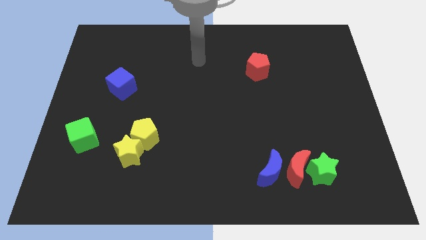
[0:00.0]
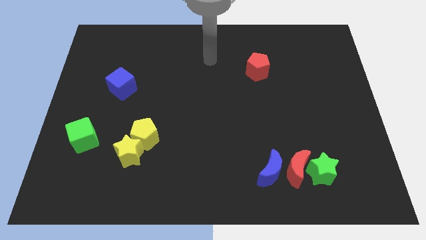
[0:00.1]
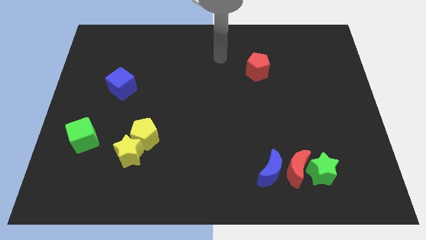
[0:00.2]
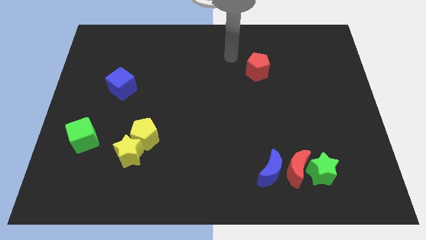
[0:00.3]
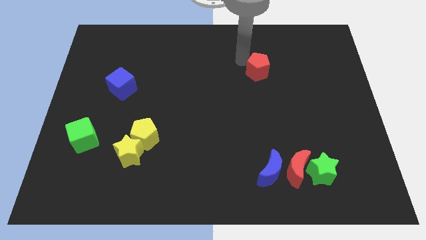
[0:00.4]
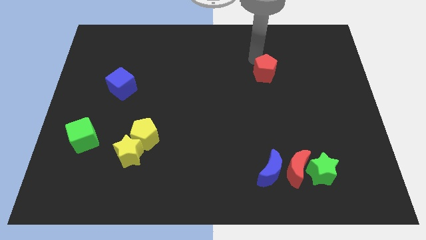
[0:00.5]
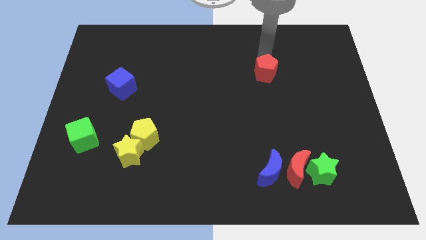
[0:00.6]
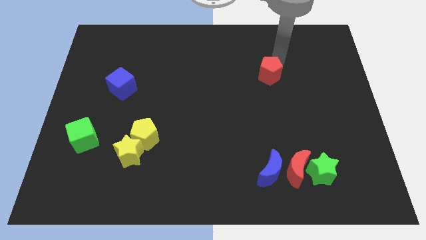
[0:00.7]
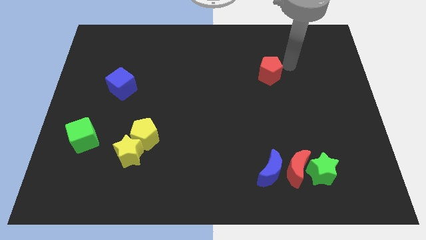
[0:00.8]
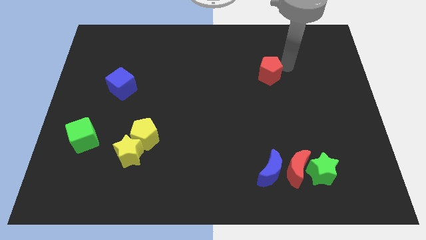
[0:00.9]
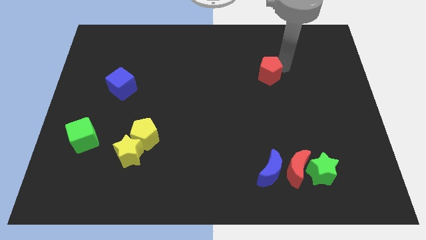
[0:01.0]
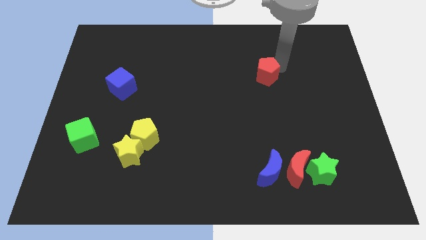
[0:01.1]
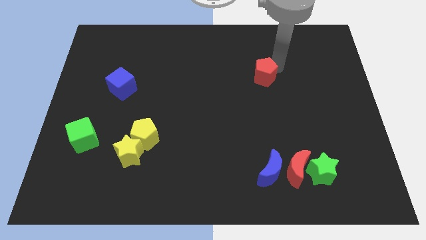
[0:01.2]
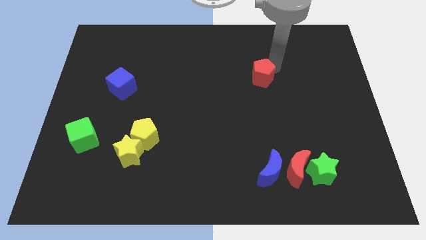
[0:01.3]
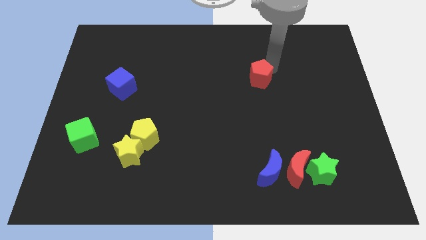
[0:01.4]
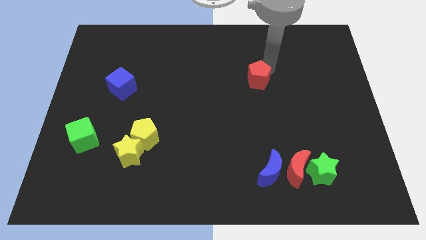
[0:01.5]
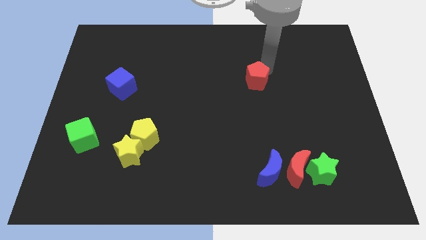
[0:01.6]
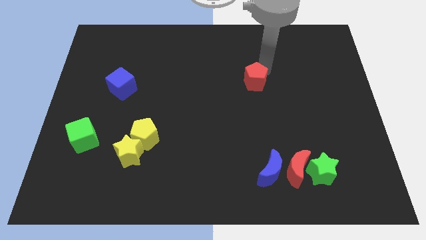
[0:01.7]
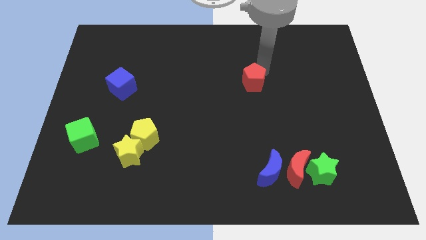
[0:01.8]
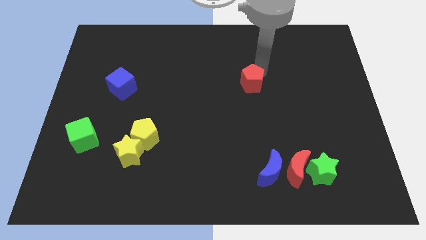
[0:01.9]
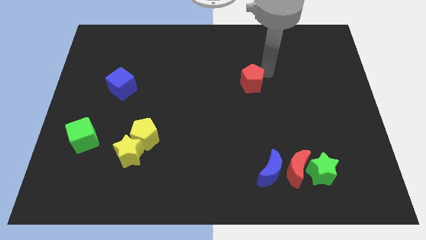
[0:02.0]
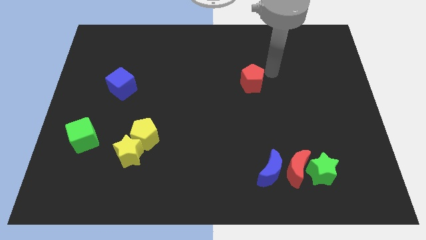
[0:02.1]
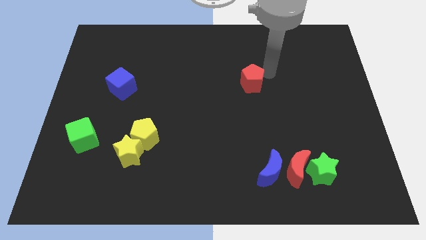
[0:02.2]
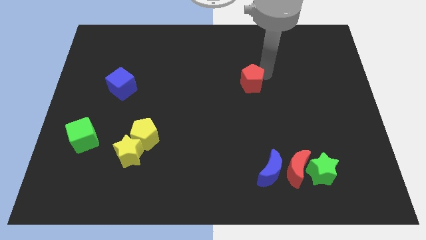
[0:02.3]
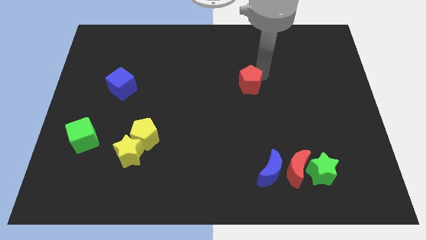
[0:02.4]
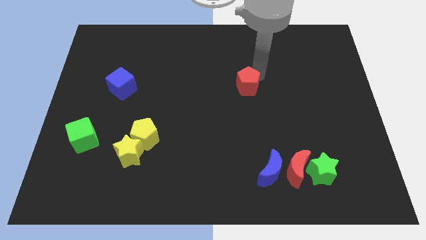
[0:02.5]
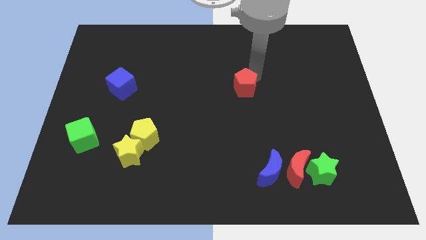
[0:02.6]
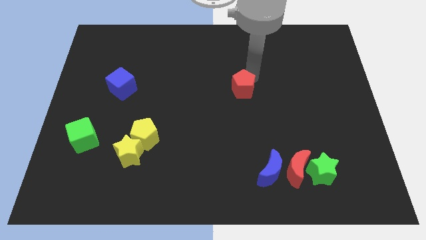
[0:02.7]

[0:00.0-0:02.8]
move the red pentagon down and left diagonally somewhat

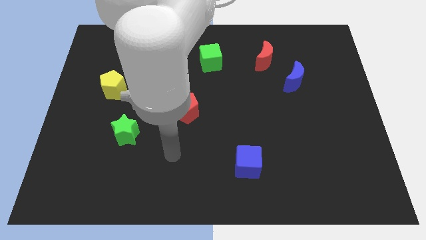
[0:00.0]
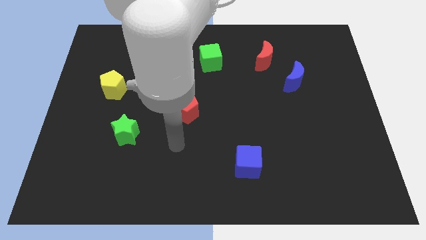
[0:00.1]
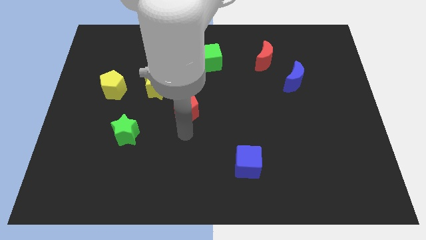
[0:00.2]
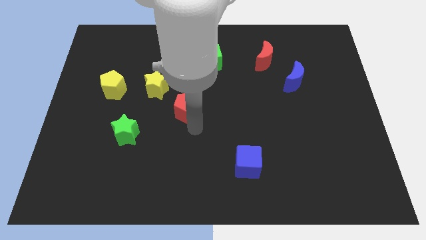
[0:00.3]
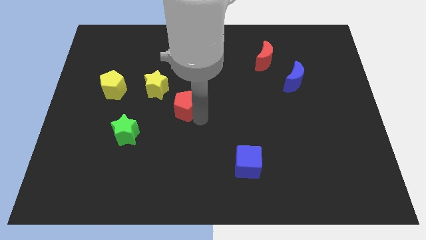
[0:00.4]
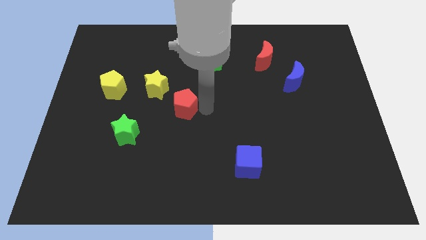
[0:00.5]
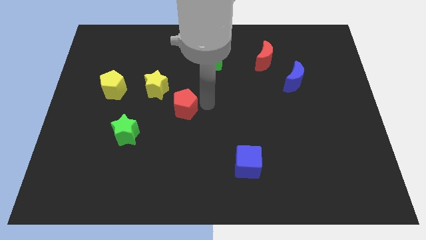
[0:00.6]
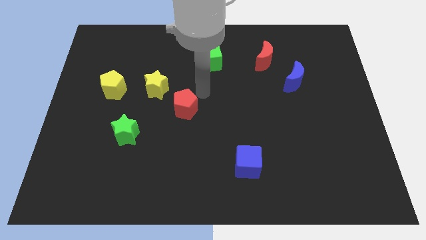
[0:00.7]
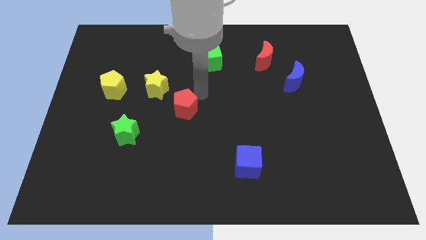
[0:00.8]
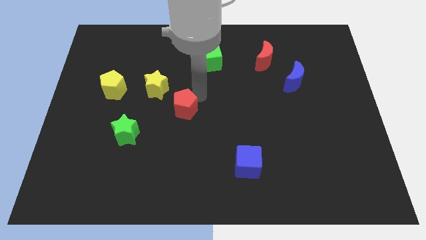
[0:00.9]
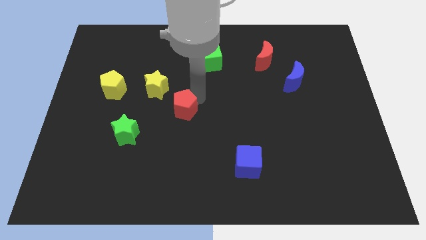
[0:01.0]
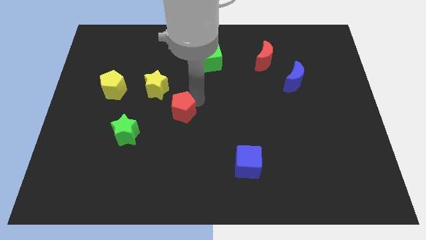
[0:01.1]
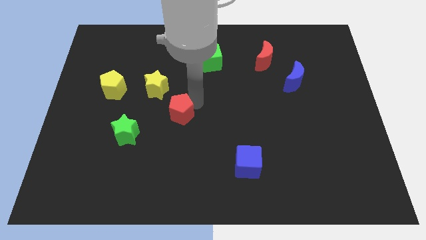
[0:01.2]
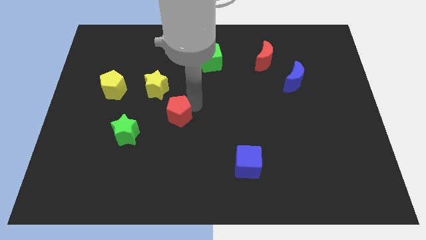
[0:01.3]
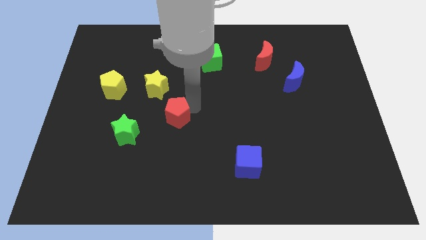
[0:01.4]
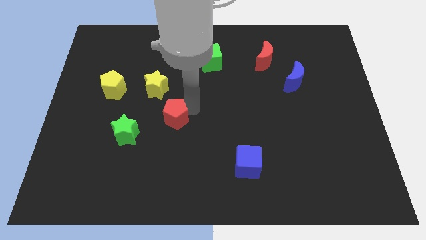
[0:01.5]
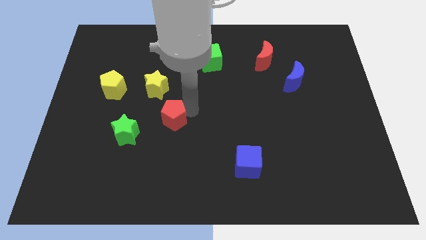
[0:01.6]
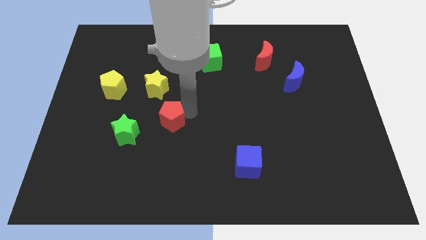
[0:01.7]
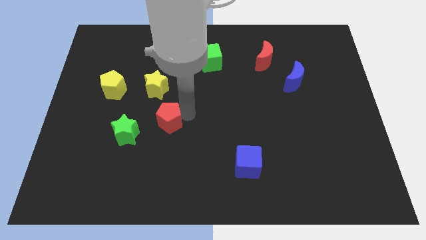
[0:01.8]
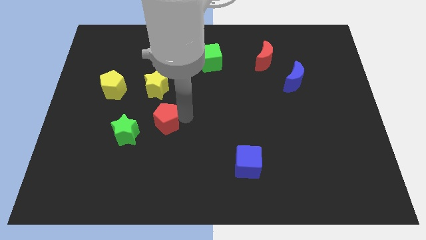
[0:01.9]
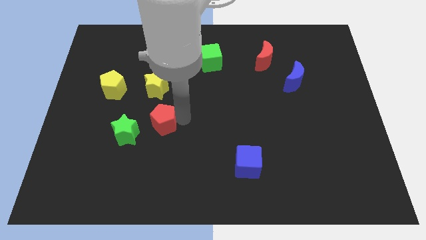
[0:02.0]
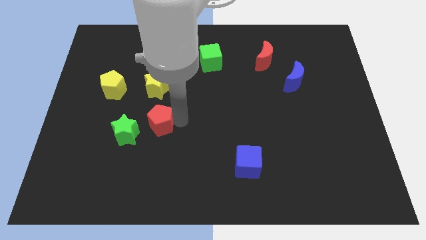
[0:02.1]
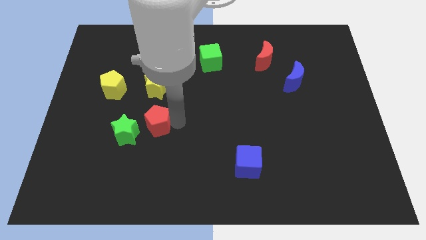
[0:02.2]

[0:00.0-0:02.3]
push the red pentagon a little bit diagonally down and left

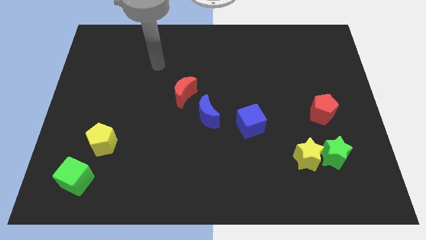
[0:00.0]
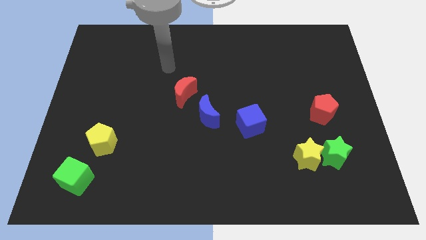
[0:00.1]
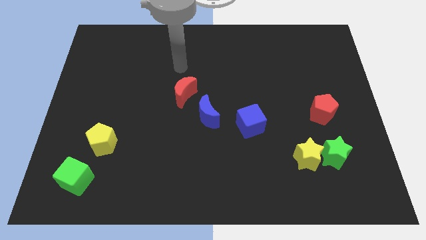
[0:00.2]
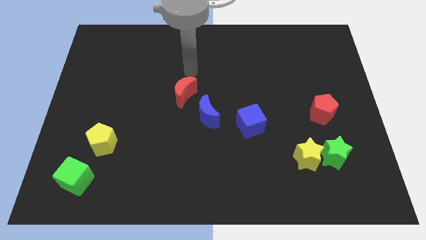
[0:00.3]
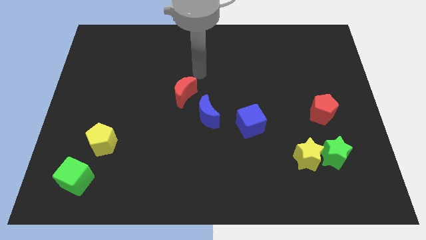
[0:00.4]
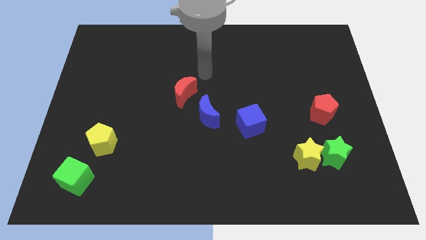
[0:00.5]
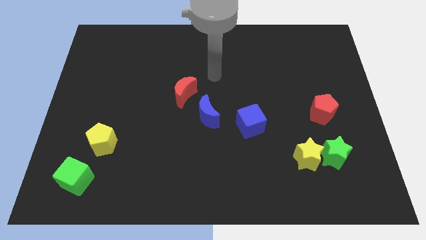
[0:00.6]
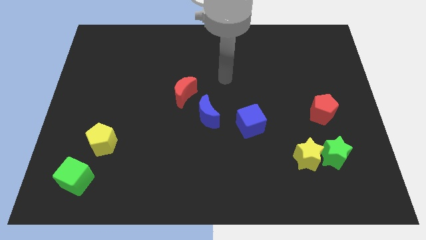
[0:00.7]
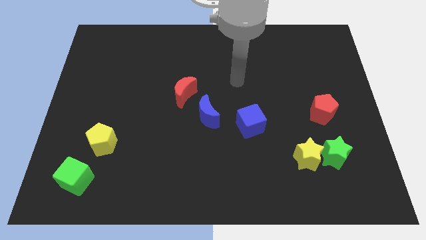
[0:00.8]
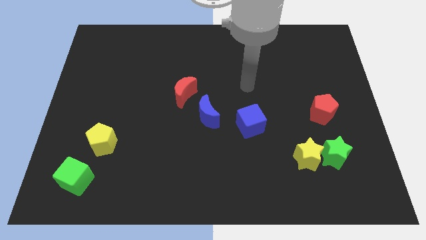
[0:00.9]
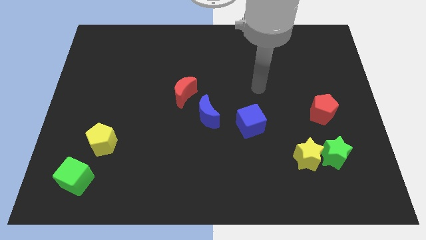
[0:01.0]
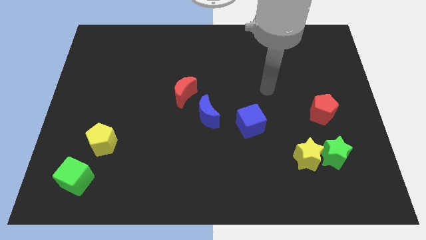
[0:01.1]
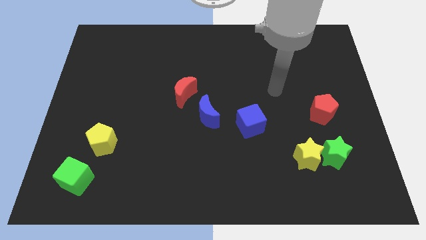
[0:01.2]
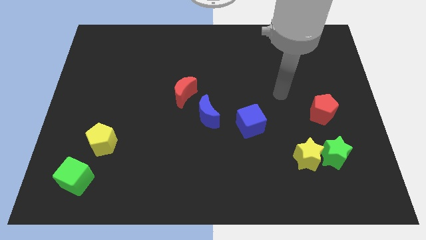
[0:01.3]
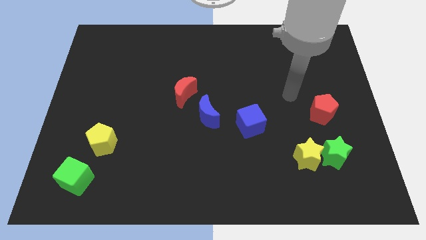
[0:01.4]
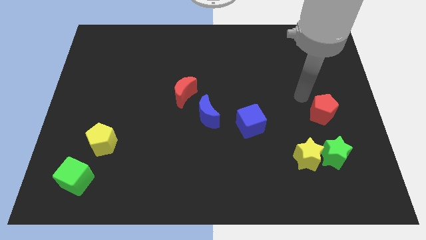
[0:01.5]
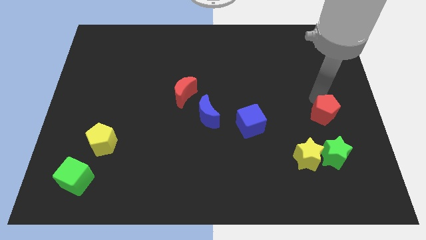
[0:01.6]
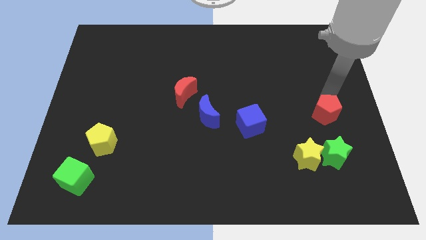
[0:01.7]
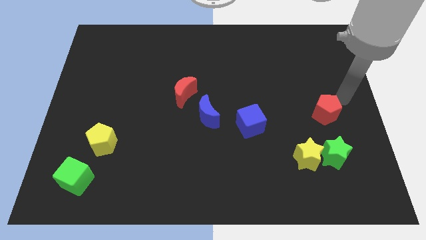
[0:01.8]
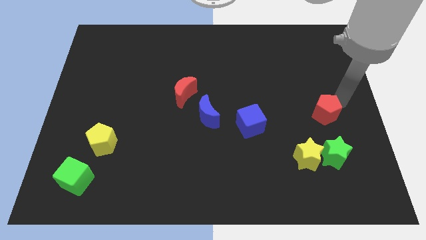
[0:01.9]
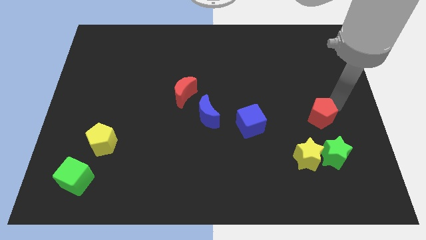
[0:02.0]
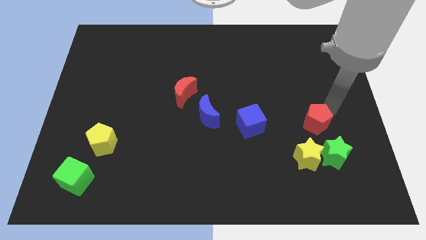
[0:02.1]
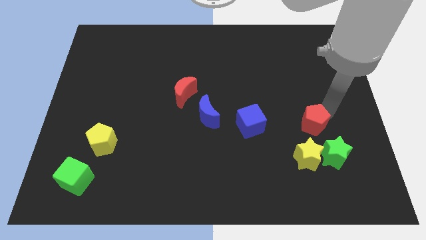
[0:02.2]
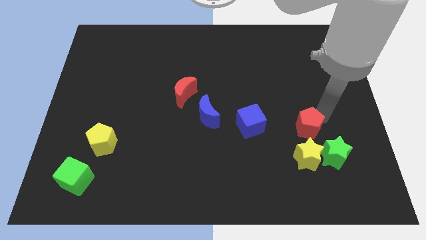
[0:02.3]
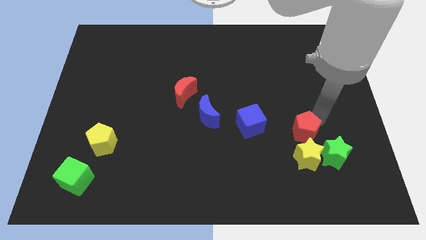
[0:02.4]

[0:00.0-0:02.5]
push the red pentagon downwards and left somewhat

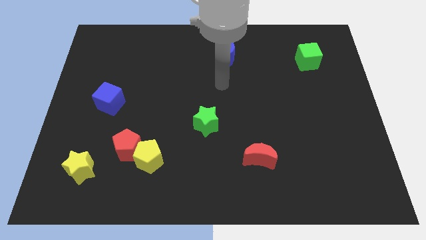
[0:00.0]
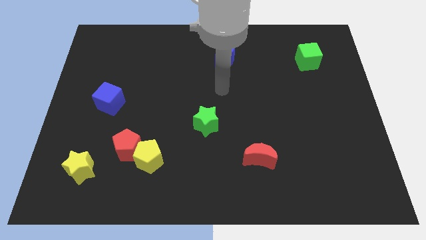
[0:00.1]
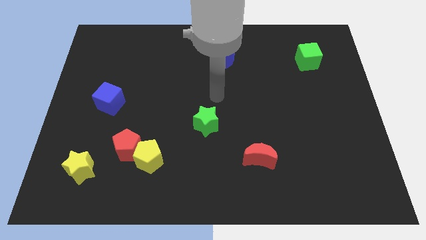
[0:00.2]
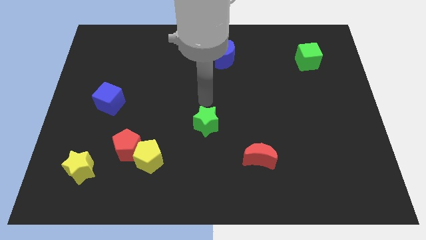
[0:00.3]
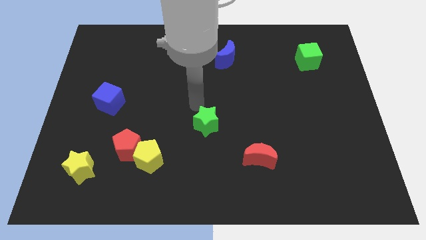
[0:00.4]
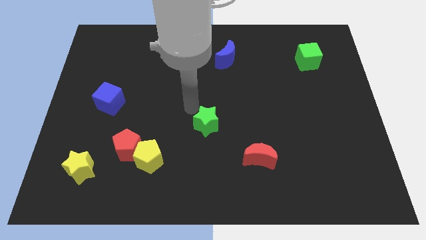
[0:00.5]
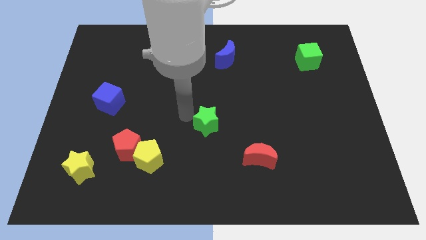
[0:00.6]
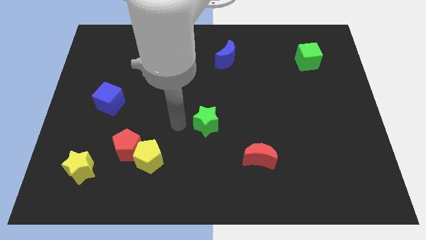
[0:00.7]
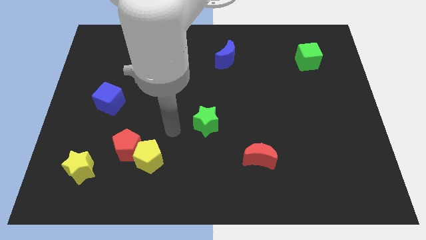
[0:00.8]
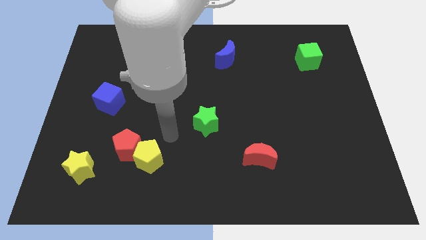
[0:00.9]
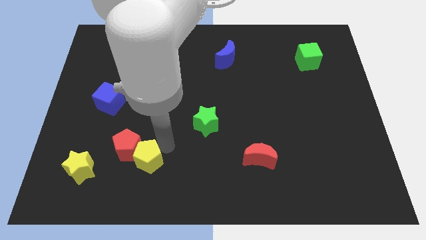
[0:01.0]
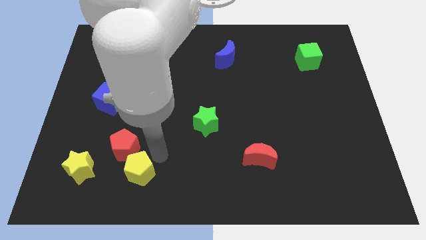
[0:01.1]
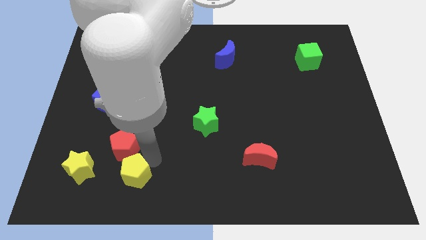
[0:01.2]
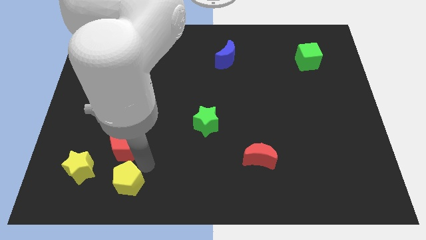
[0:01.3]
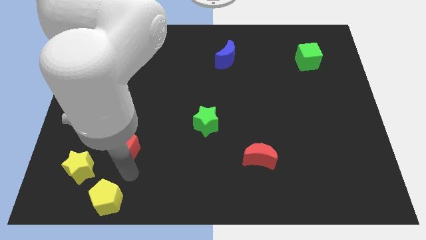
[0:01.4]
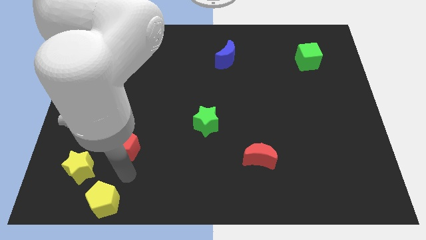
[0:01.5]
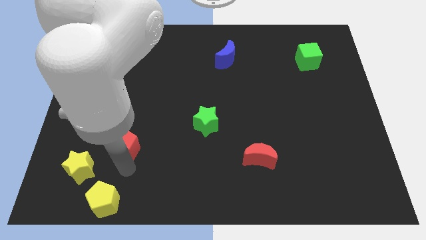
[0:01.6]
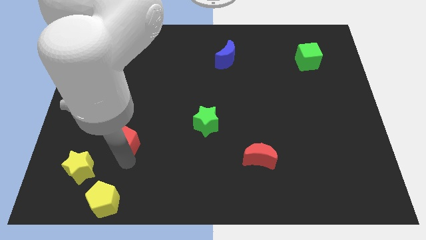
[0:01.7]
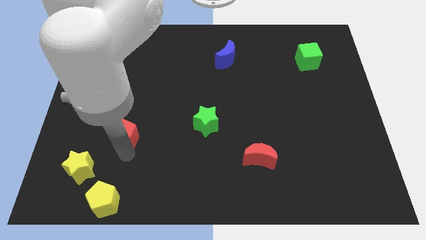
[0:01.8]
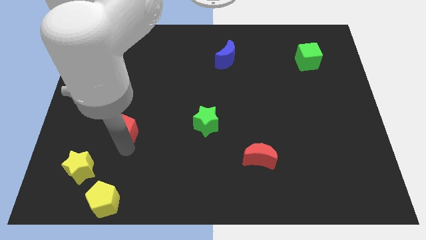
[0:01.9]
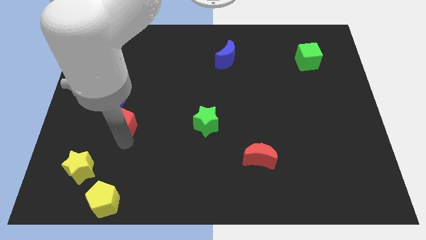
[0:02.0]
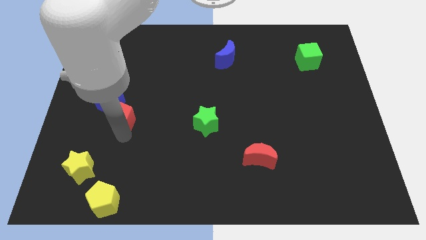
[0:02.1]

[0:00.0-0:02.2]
move the red pentagon up slightly
